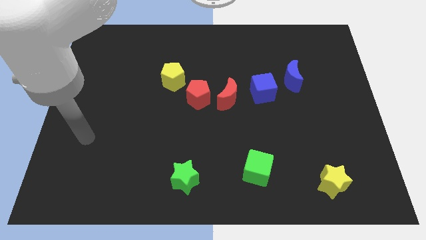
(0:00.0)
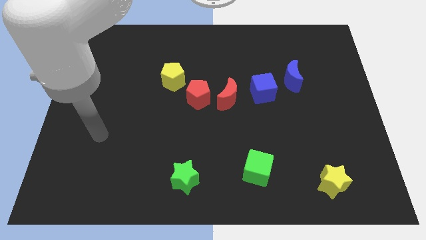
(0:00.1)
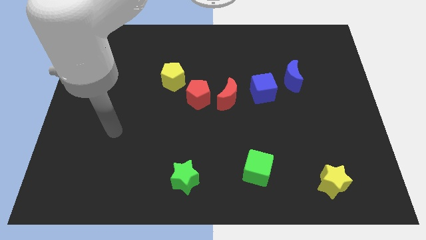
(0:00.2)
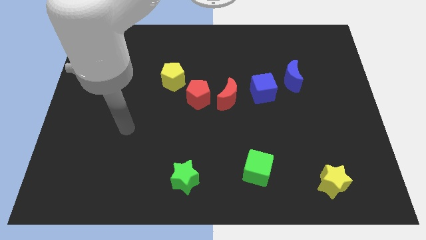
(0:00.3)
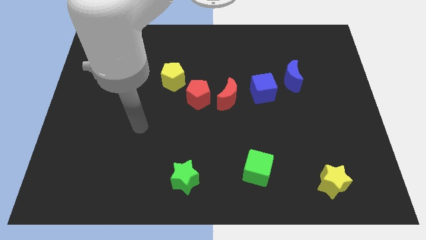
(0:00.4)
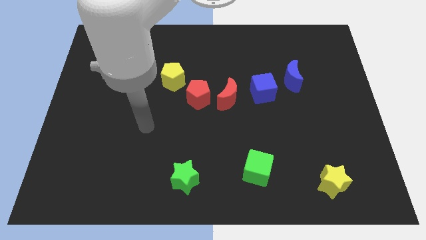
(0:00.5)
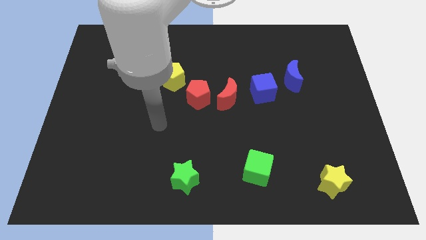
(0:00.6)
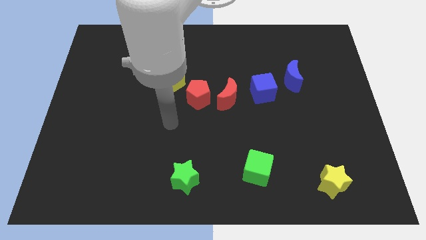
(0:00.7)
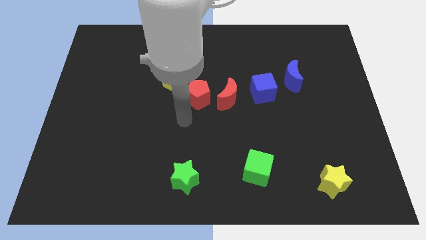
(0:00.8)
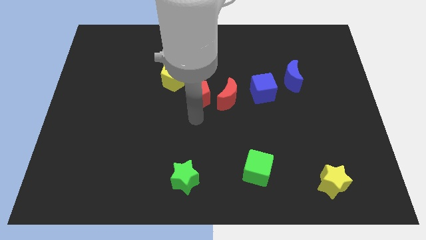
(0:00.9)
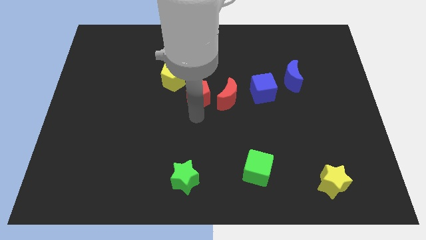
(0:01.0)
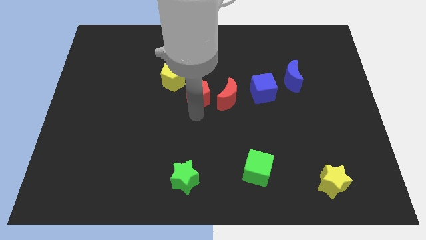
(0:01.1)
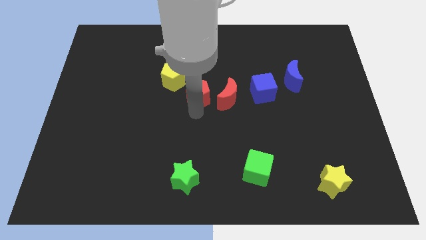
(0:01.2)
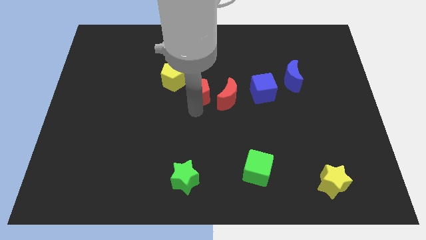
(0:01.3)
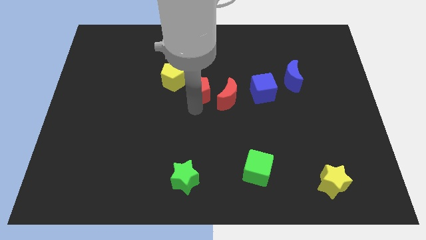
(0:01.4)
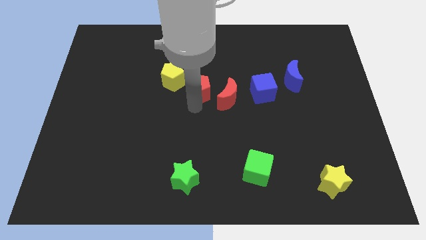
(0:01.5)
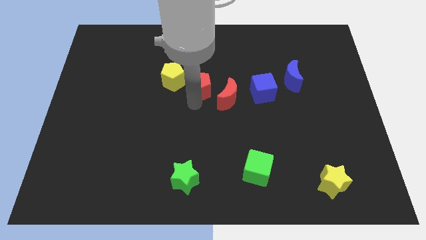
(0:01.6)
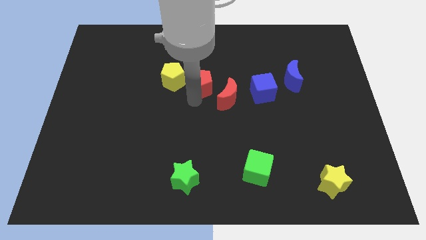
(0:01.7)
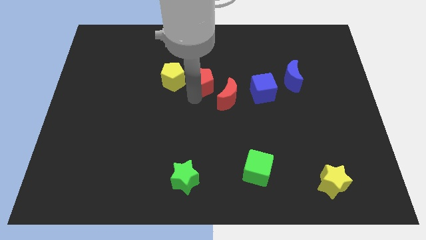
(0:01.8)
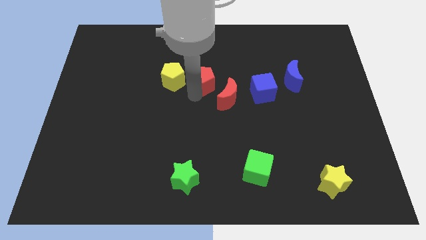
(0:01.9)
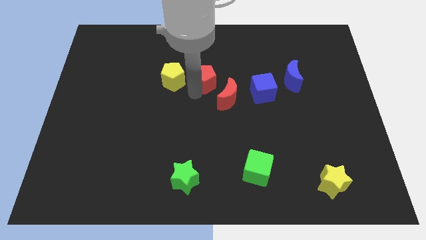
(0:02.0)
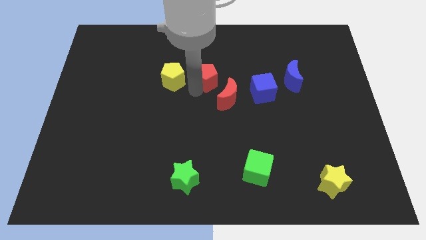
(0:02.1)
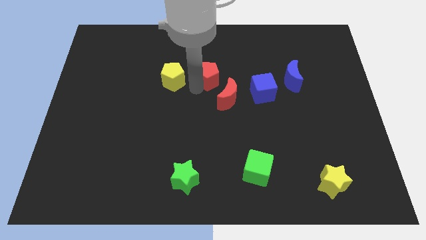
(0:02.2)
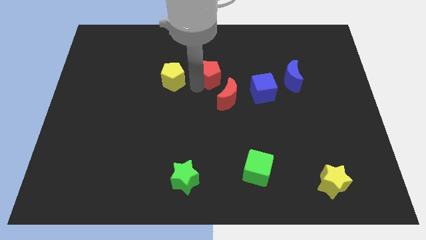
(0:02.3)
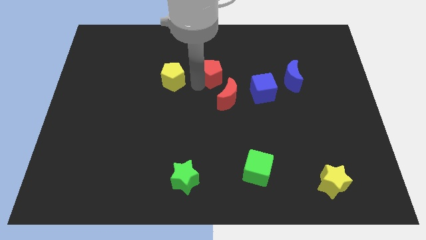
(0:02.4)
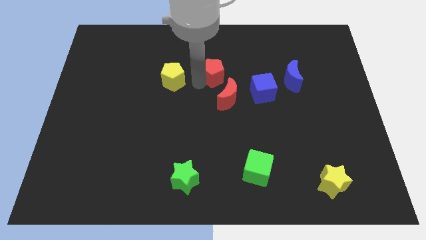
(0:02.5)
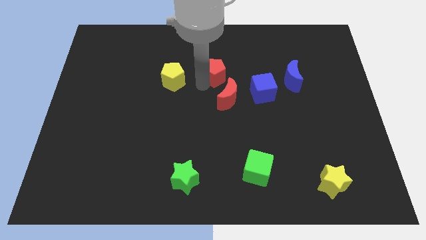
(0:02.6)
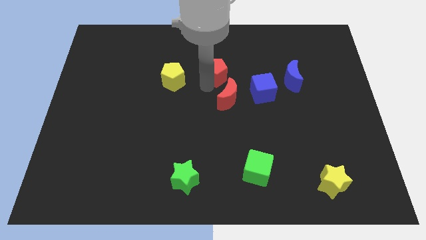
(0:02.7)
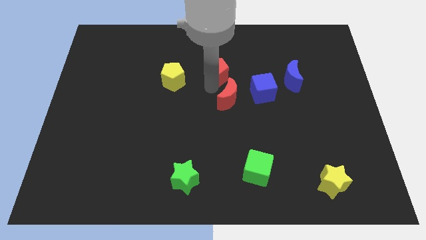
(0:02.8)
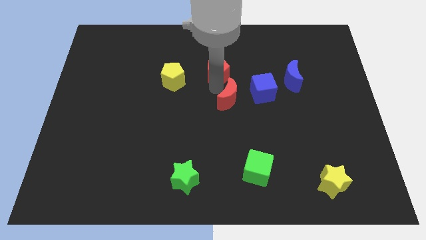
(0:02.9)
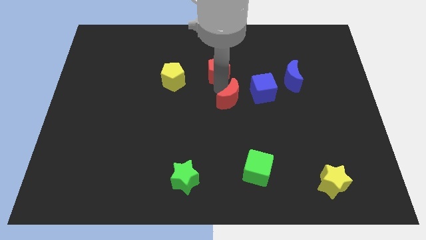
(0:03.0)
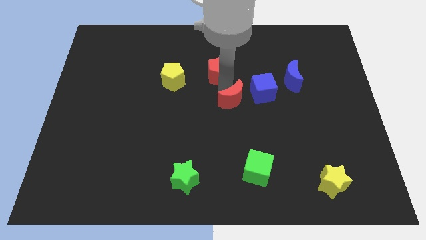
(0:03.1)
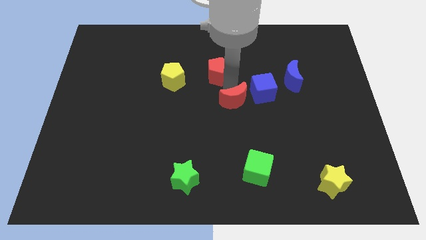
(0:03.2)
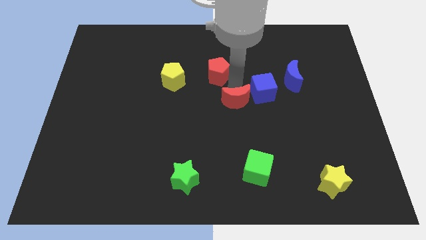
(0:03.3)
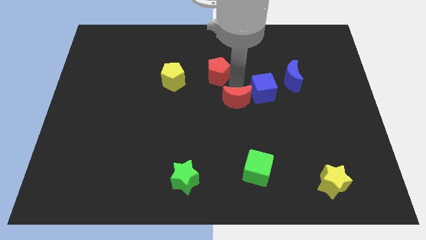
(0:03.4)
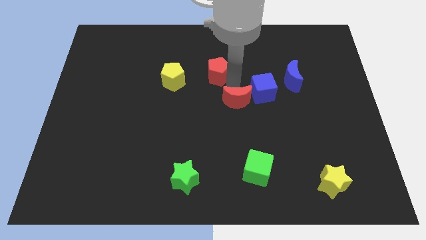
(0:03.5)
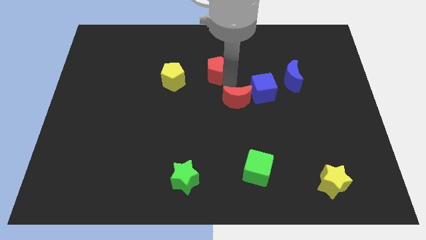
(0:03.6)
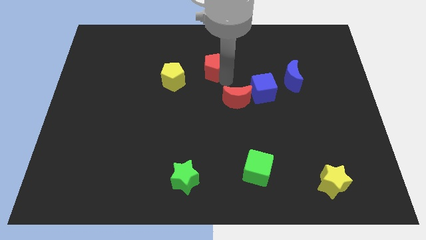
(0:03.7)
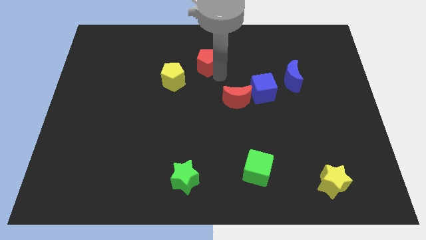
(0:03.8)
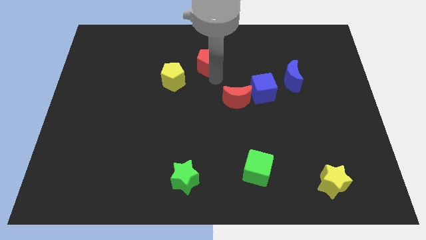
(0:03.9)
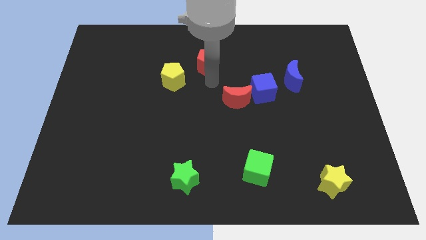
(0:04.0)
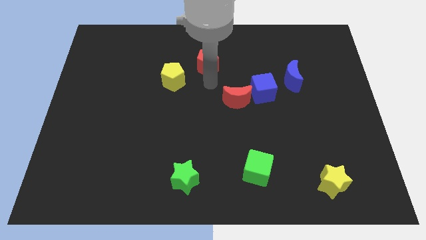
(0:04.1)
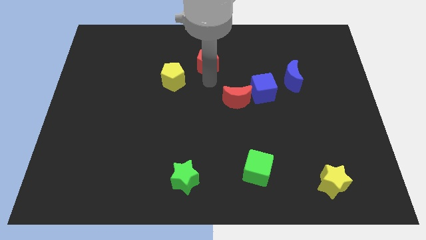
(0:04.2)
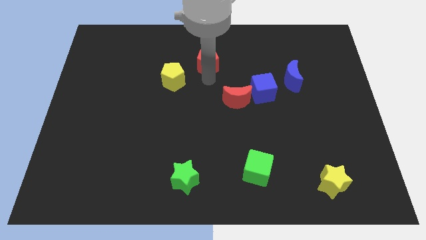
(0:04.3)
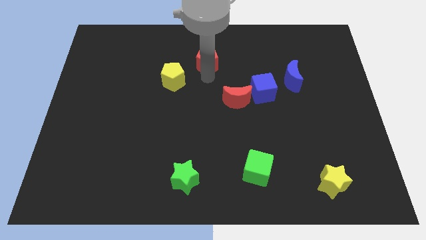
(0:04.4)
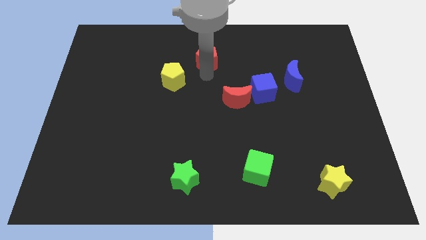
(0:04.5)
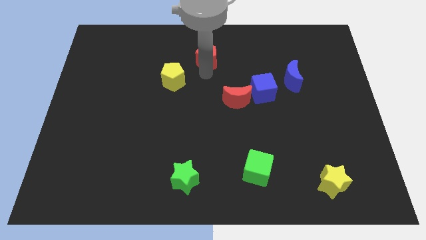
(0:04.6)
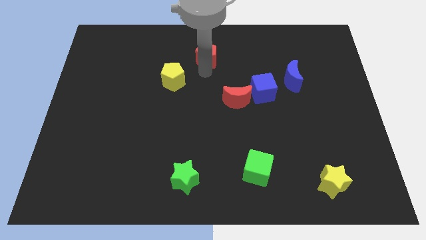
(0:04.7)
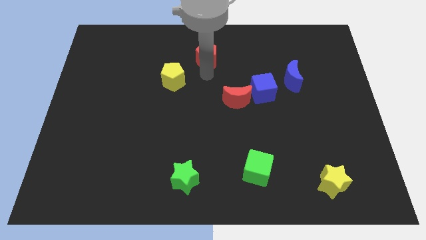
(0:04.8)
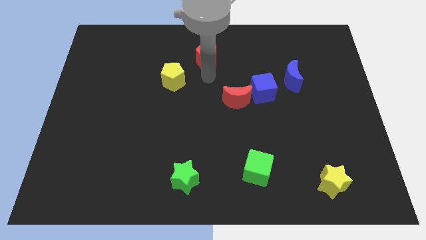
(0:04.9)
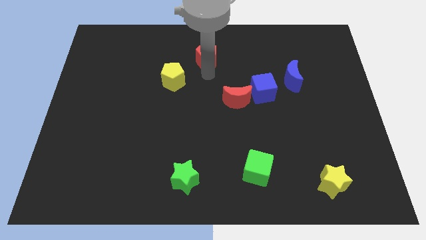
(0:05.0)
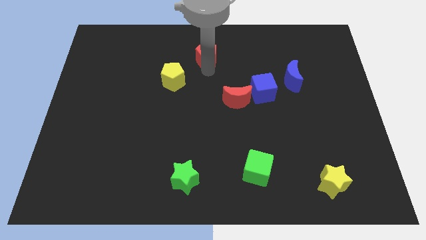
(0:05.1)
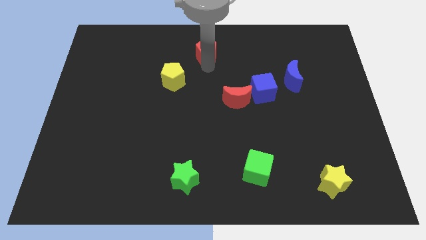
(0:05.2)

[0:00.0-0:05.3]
slide the red pentagon to the towards your base

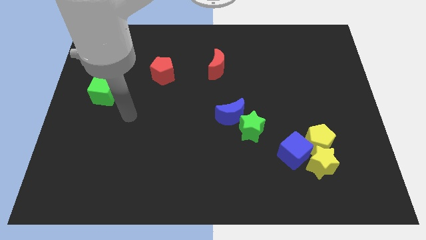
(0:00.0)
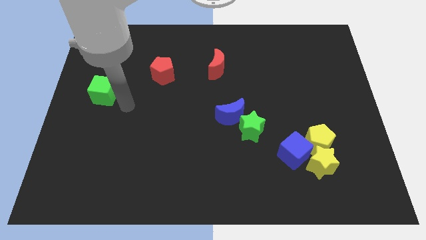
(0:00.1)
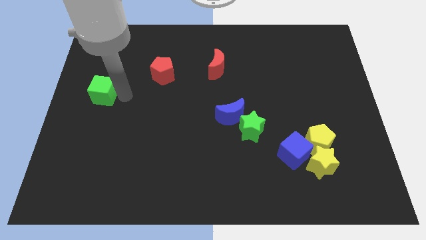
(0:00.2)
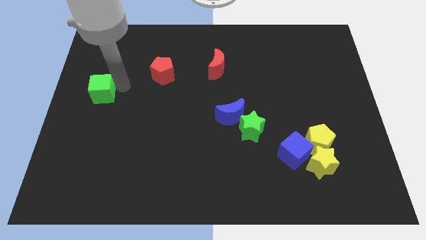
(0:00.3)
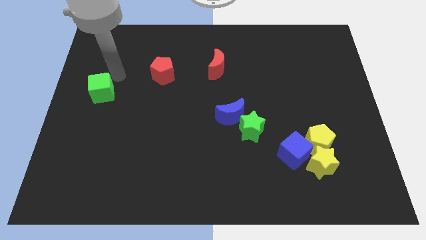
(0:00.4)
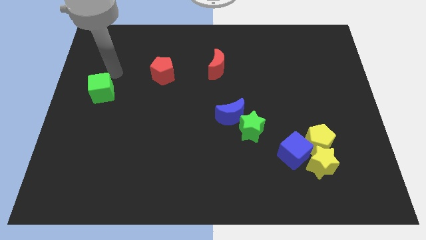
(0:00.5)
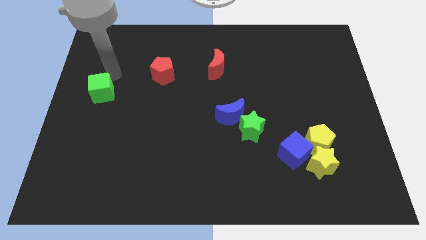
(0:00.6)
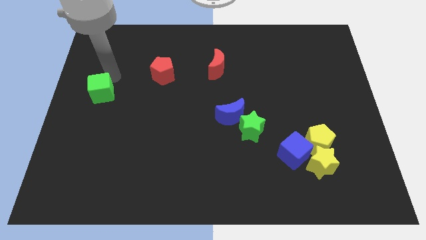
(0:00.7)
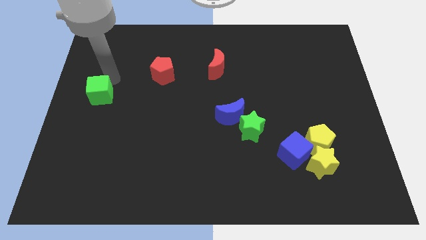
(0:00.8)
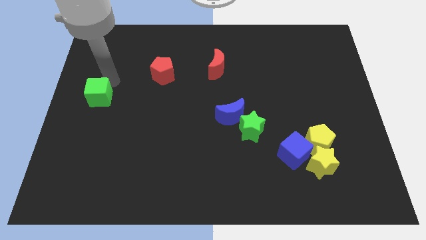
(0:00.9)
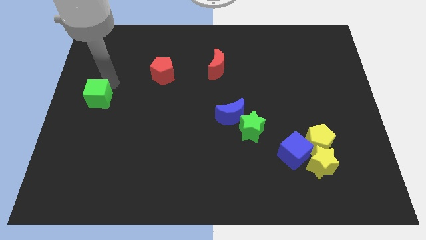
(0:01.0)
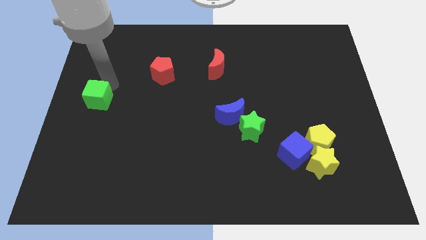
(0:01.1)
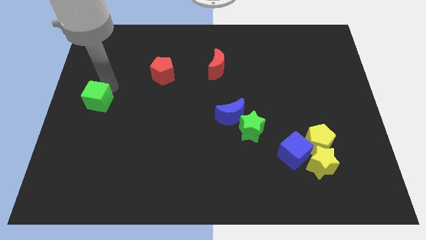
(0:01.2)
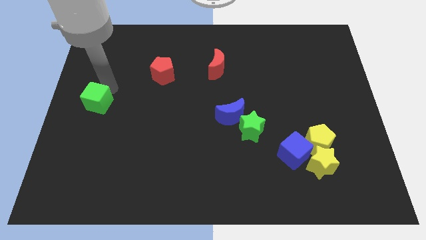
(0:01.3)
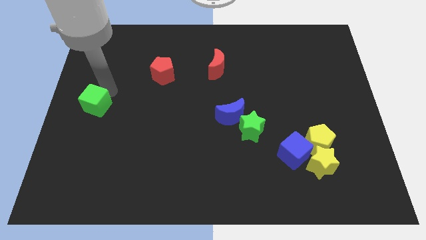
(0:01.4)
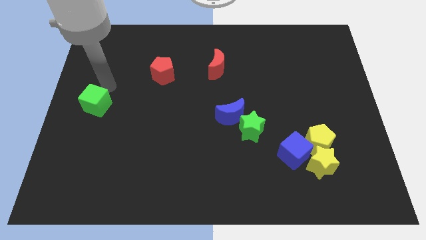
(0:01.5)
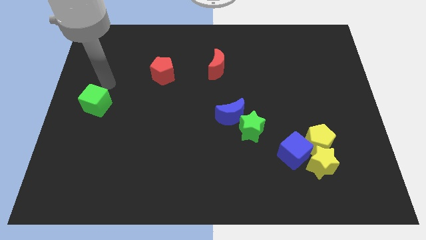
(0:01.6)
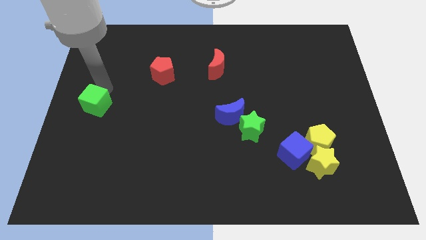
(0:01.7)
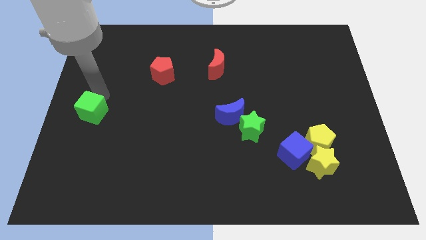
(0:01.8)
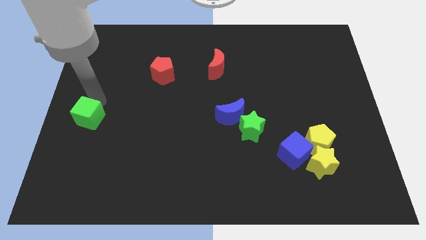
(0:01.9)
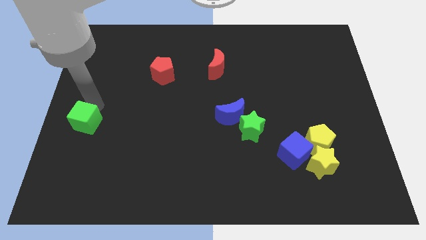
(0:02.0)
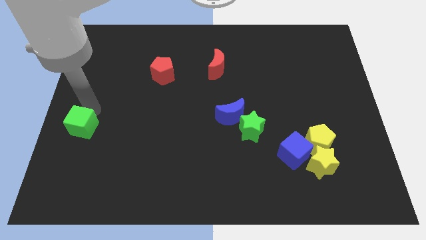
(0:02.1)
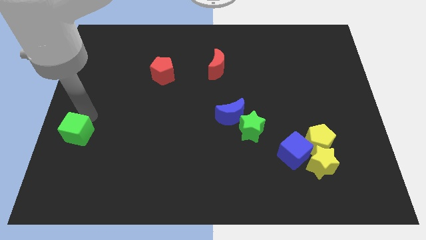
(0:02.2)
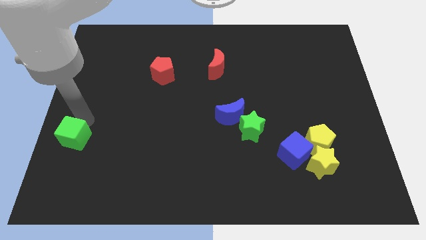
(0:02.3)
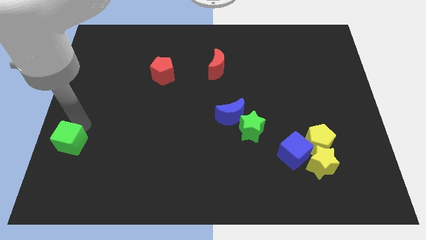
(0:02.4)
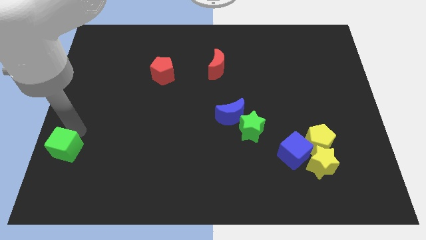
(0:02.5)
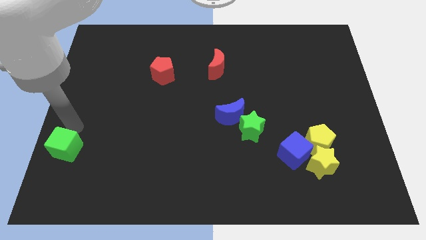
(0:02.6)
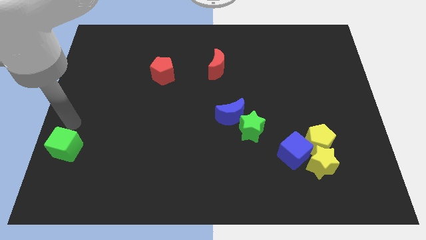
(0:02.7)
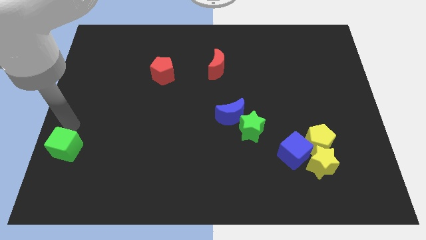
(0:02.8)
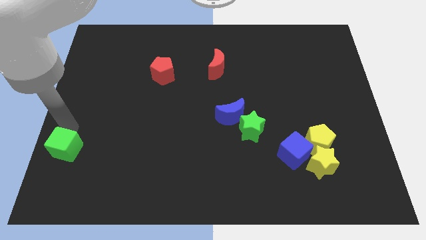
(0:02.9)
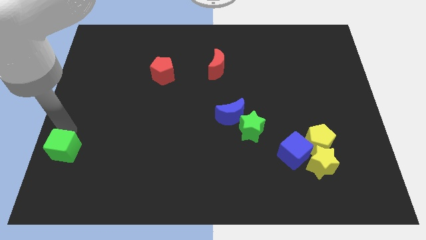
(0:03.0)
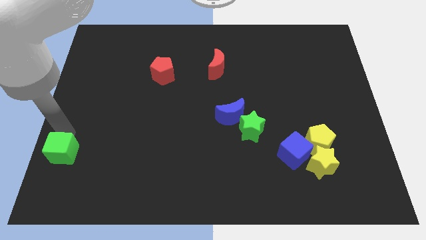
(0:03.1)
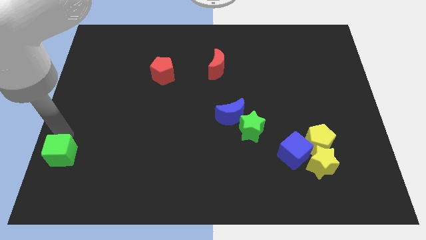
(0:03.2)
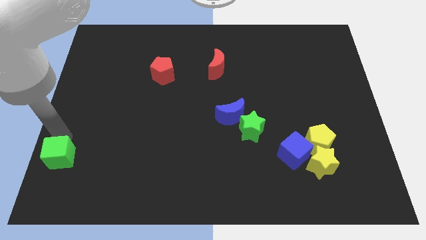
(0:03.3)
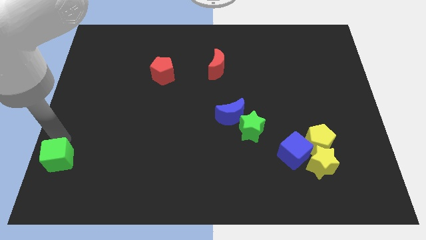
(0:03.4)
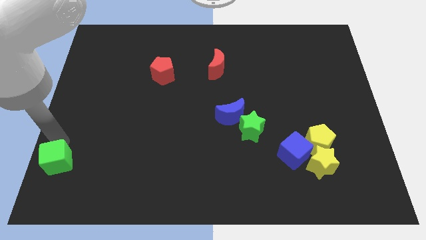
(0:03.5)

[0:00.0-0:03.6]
push the green cube to the lower left corner
